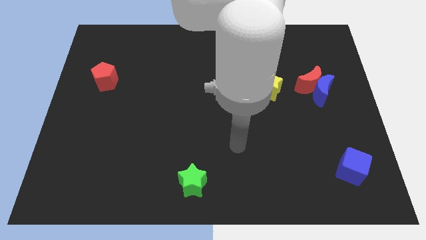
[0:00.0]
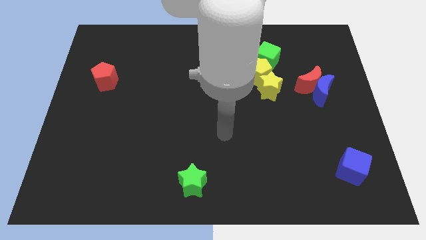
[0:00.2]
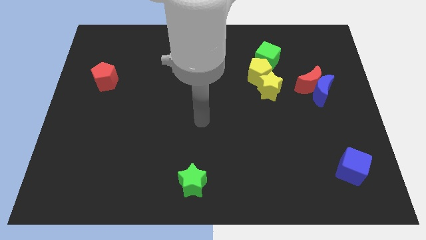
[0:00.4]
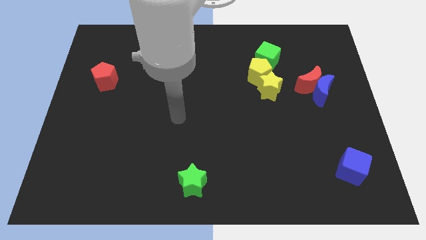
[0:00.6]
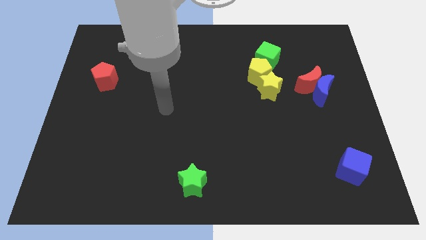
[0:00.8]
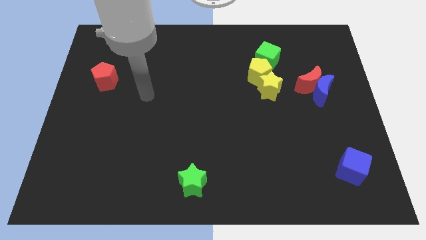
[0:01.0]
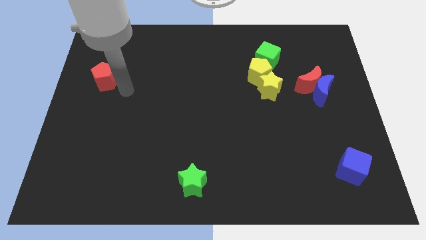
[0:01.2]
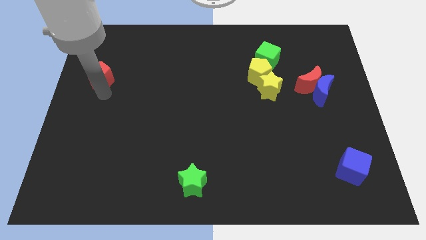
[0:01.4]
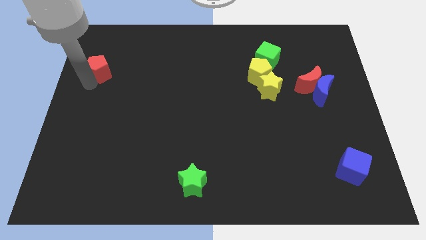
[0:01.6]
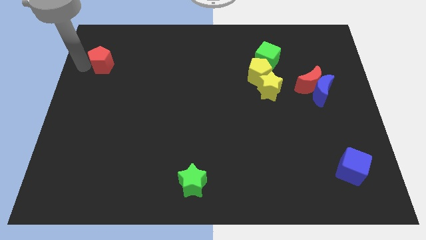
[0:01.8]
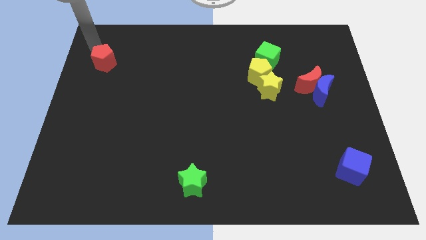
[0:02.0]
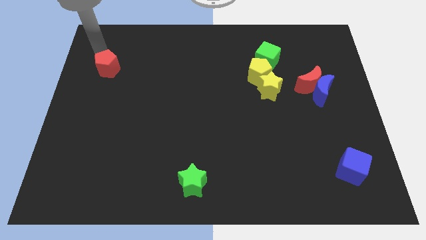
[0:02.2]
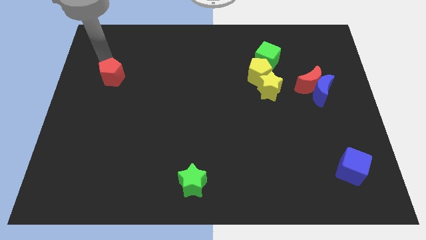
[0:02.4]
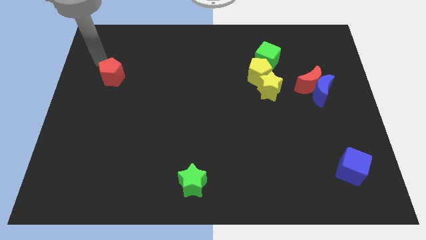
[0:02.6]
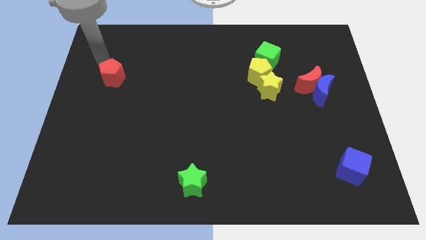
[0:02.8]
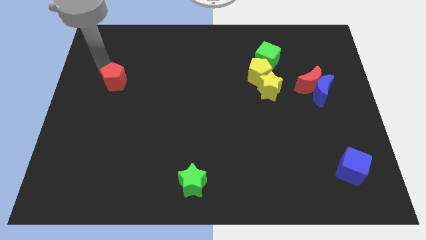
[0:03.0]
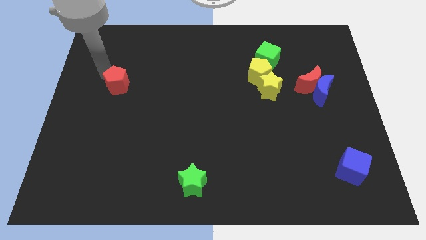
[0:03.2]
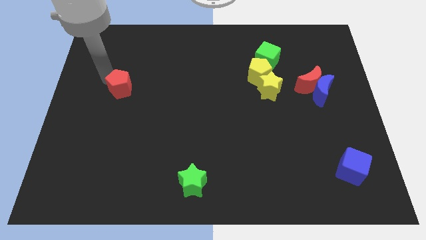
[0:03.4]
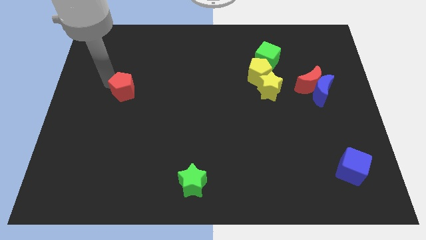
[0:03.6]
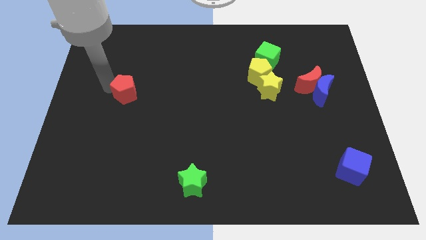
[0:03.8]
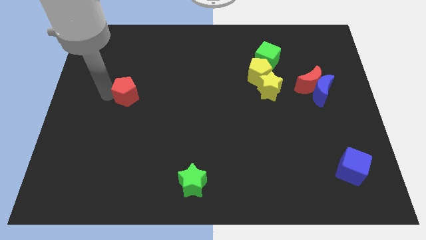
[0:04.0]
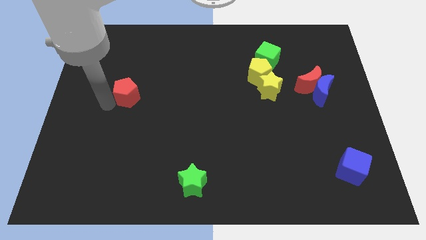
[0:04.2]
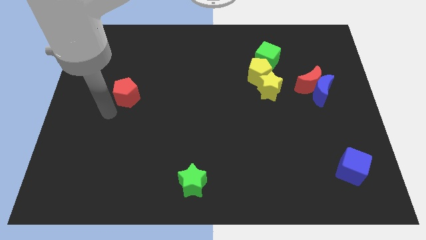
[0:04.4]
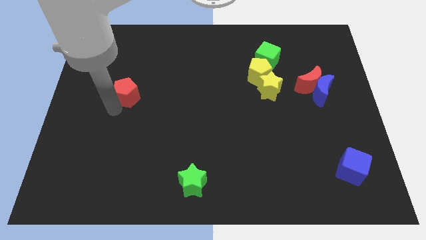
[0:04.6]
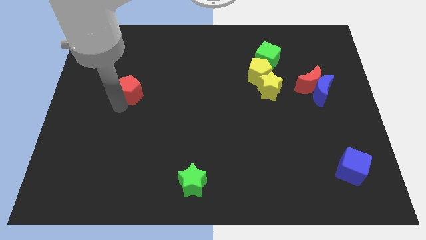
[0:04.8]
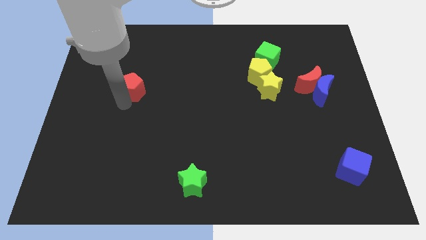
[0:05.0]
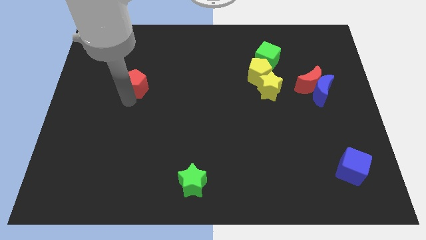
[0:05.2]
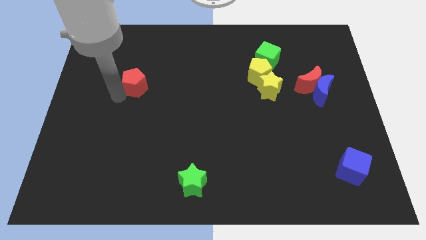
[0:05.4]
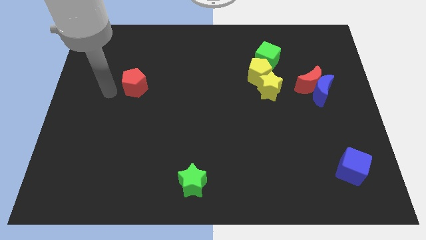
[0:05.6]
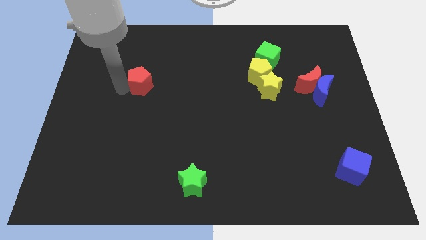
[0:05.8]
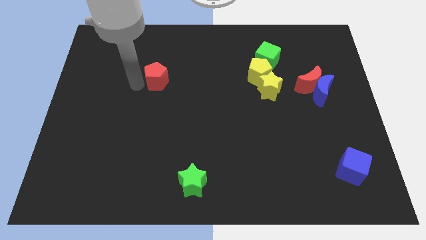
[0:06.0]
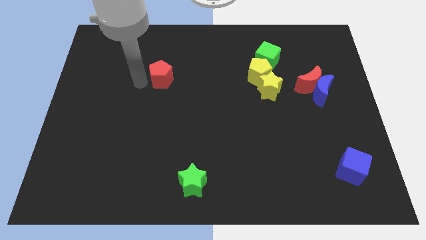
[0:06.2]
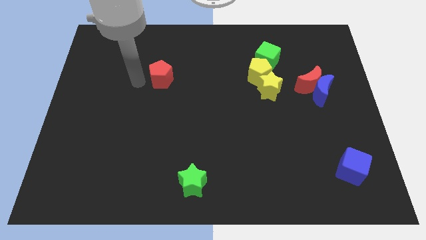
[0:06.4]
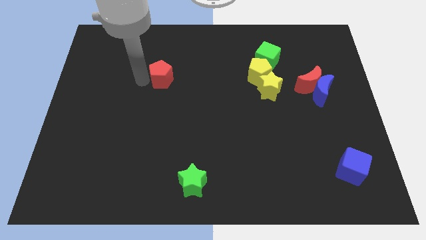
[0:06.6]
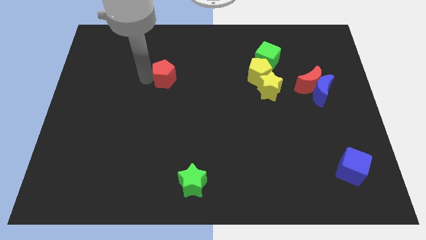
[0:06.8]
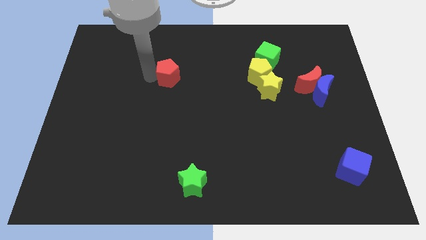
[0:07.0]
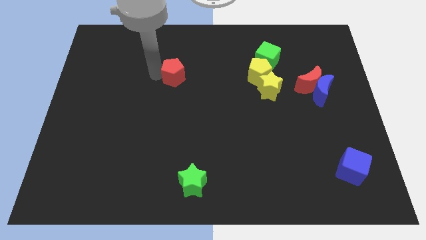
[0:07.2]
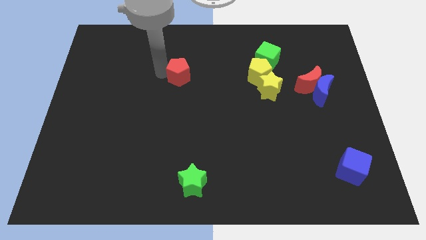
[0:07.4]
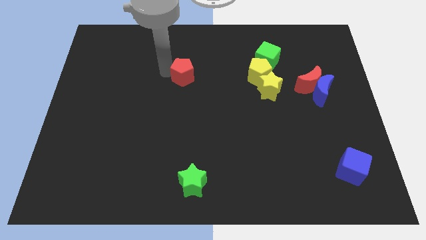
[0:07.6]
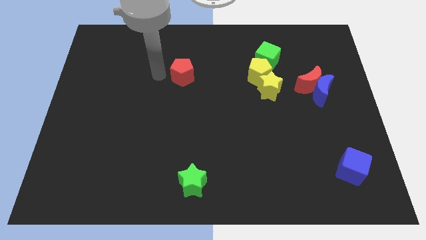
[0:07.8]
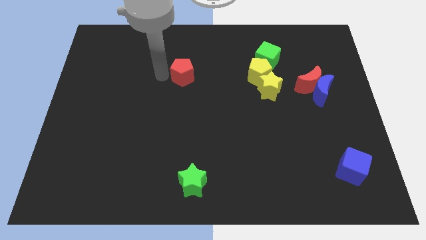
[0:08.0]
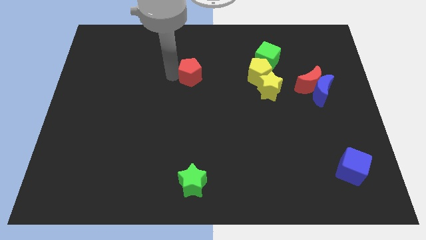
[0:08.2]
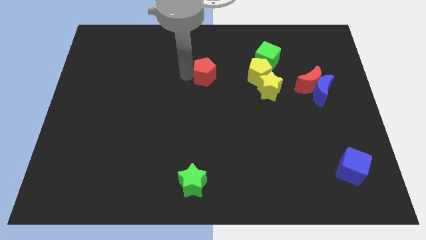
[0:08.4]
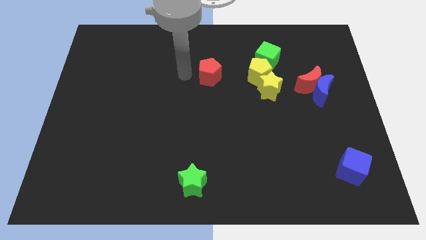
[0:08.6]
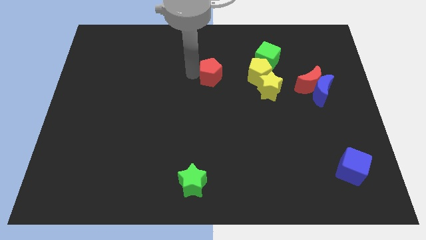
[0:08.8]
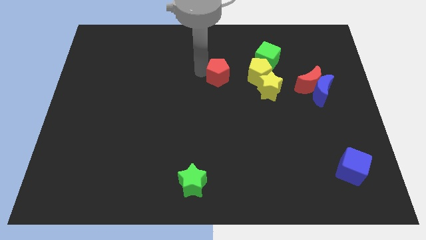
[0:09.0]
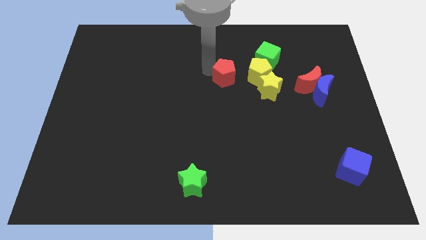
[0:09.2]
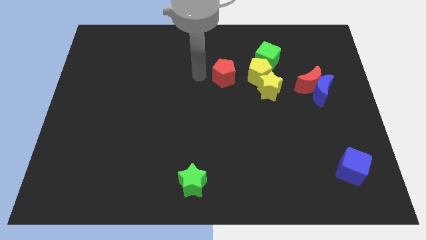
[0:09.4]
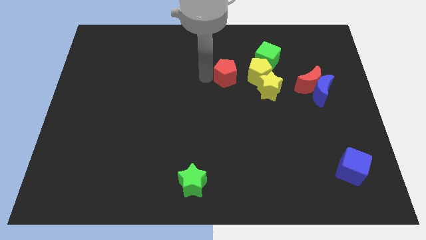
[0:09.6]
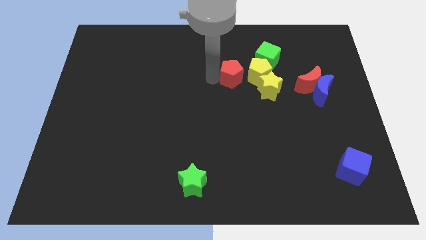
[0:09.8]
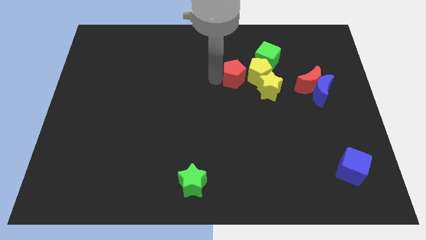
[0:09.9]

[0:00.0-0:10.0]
move the red pentagon to the yellow pentagon

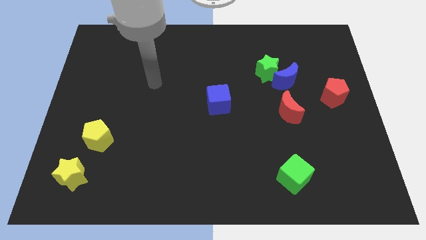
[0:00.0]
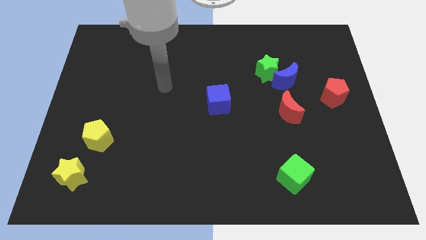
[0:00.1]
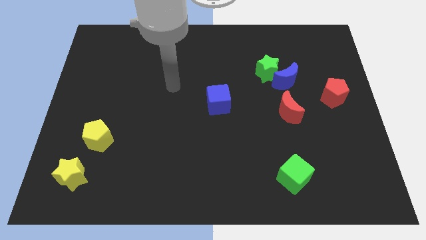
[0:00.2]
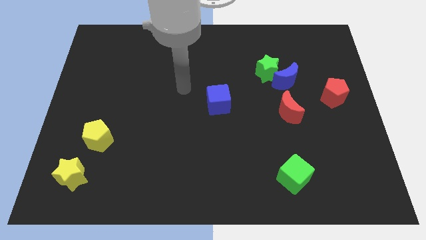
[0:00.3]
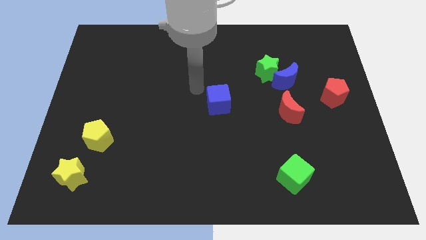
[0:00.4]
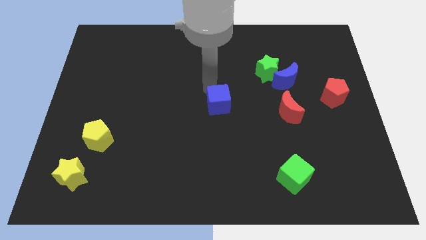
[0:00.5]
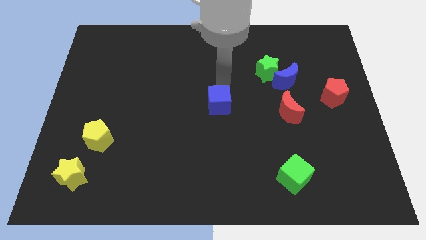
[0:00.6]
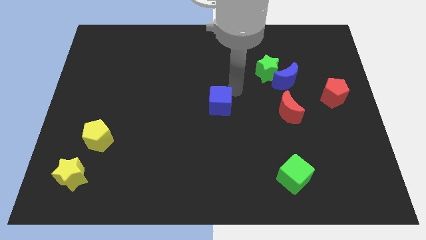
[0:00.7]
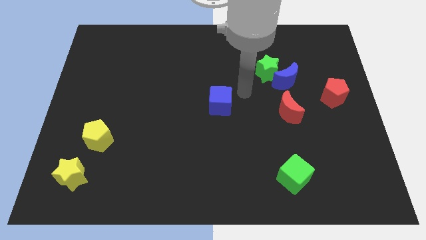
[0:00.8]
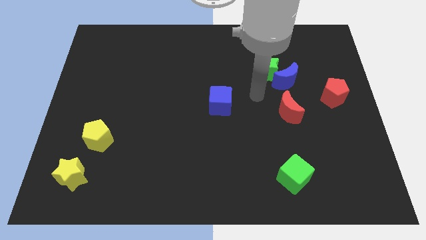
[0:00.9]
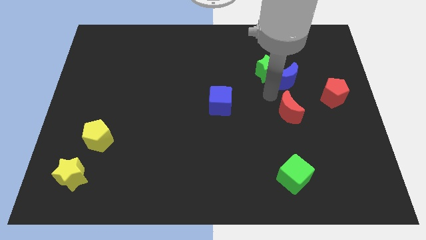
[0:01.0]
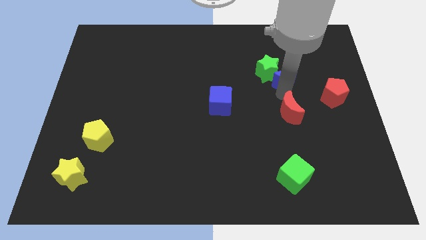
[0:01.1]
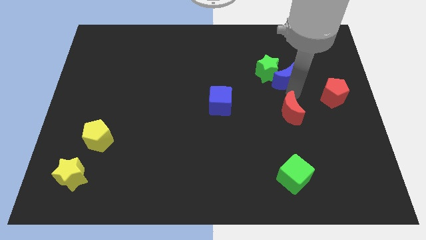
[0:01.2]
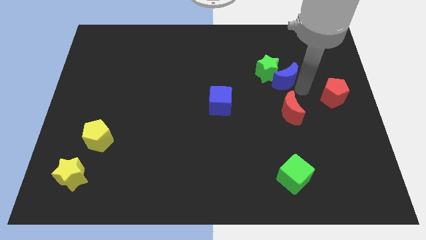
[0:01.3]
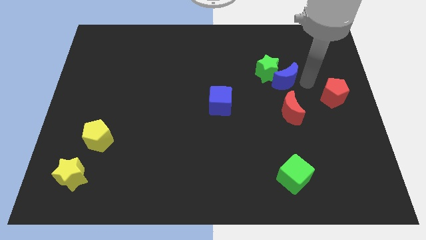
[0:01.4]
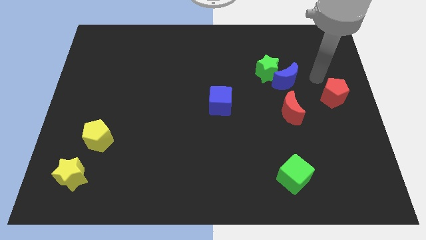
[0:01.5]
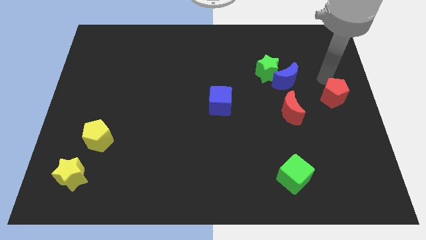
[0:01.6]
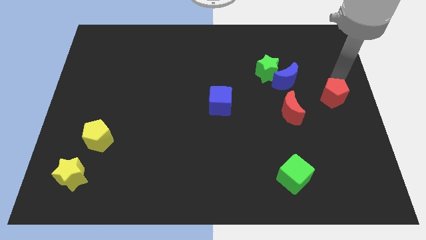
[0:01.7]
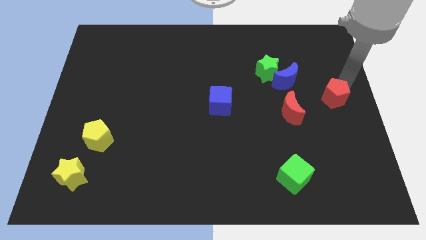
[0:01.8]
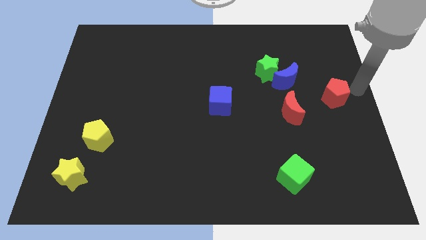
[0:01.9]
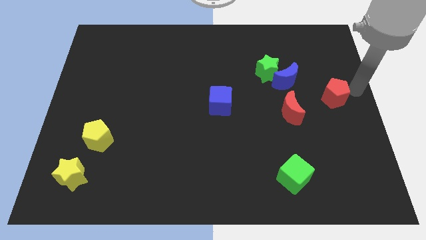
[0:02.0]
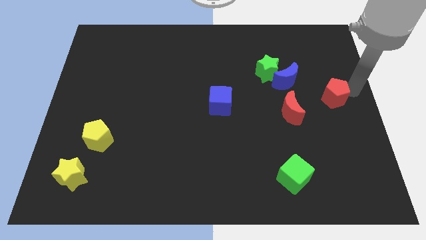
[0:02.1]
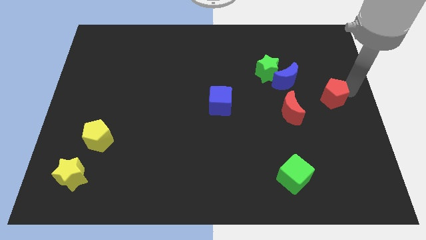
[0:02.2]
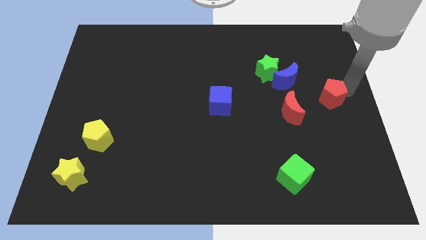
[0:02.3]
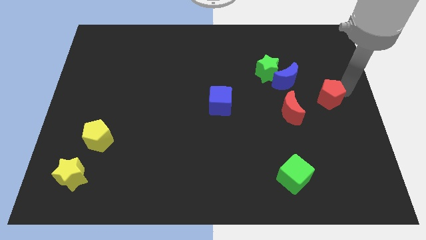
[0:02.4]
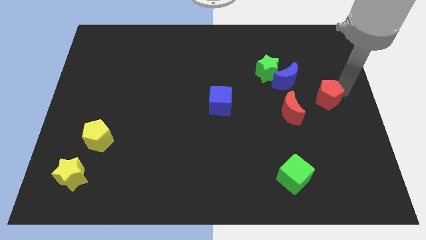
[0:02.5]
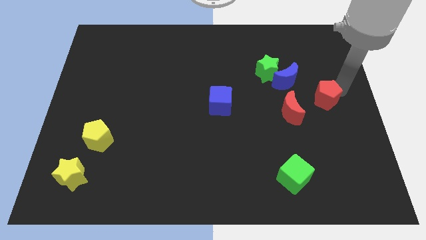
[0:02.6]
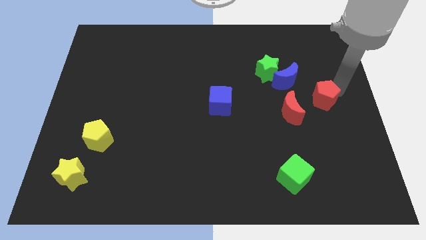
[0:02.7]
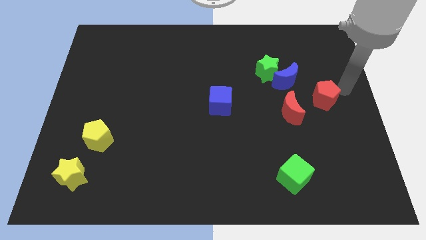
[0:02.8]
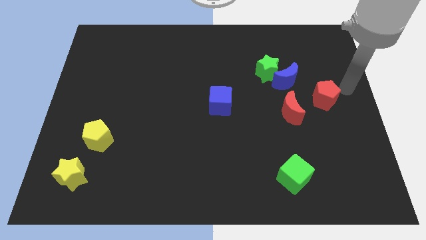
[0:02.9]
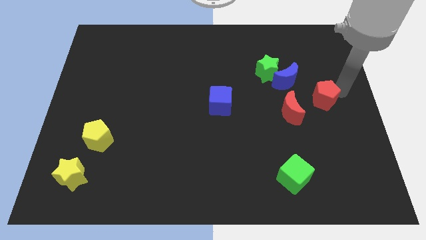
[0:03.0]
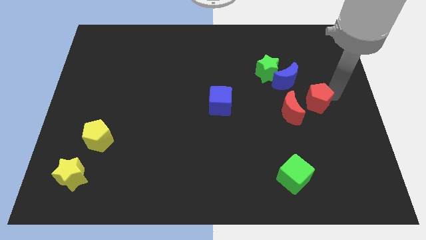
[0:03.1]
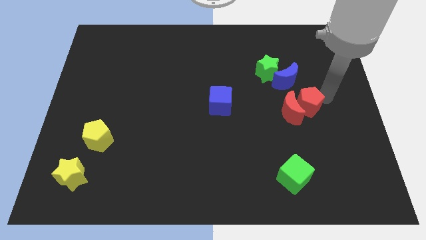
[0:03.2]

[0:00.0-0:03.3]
put the red pentagon to the red moon
